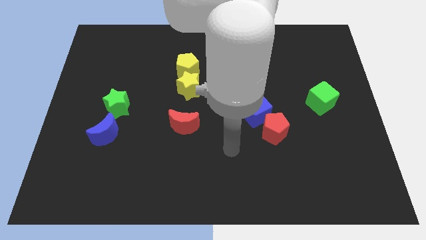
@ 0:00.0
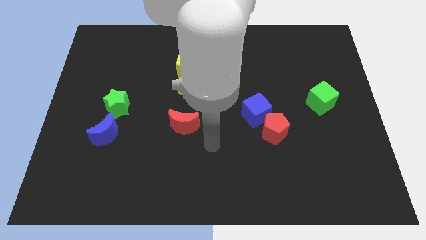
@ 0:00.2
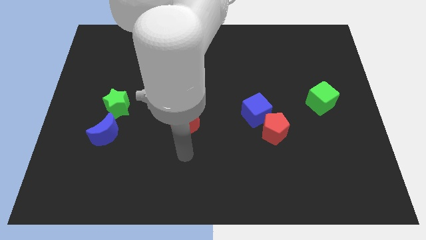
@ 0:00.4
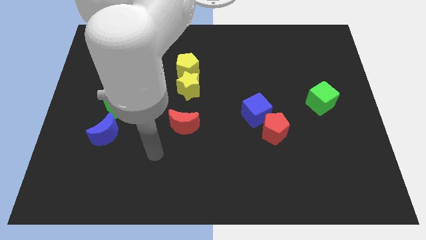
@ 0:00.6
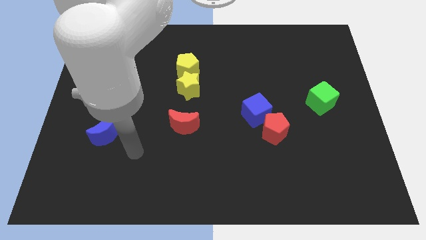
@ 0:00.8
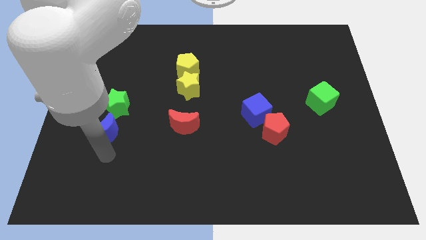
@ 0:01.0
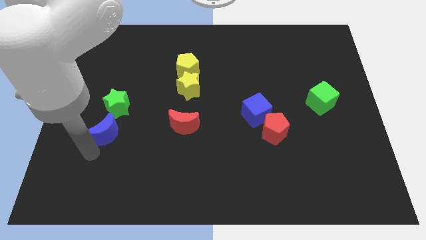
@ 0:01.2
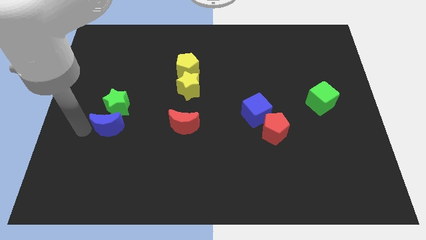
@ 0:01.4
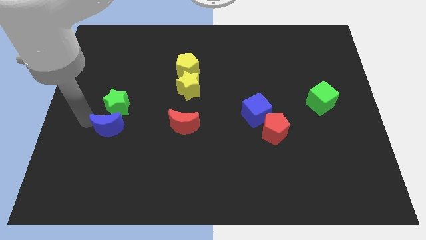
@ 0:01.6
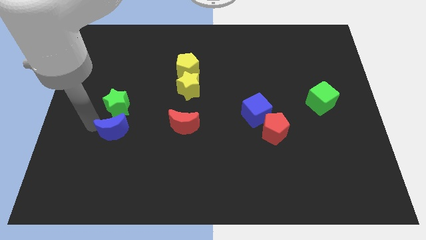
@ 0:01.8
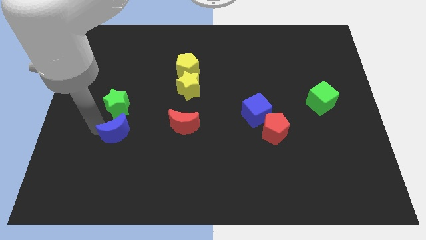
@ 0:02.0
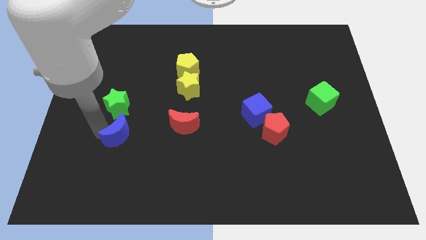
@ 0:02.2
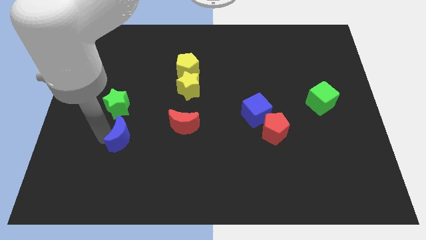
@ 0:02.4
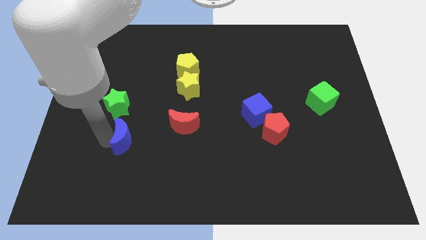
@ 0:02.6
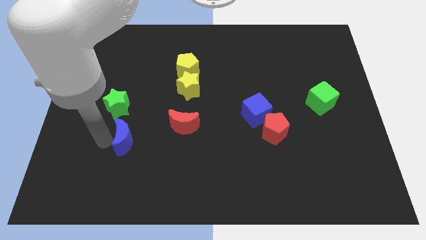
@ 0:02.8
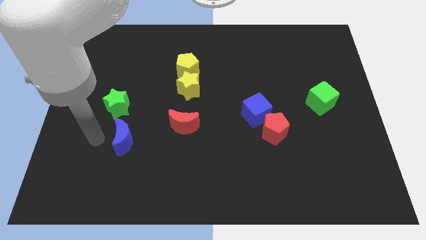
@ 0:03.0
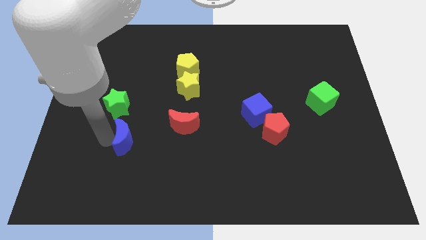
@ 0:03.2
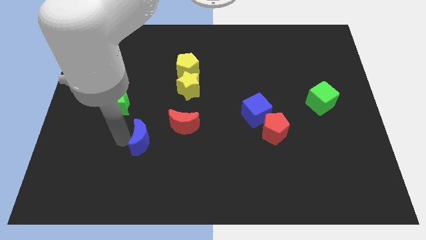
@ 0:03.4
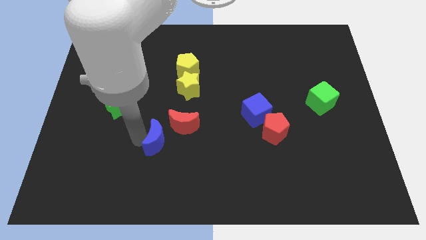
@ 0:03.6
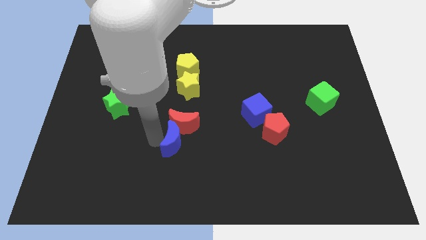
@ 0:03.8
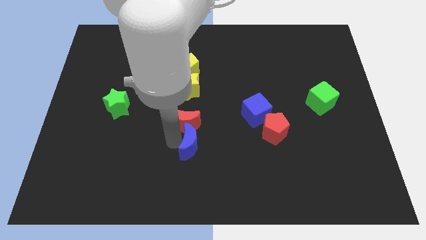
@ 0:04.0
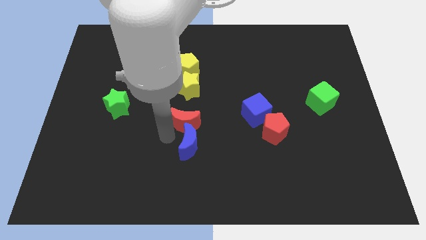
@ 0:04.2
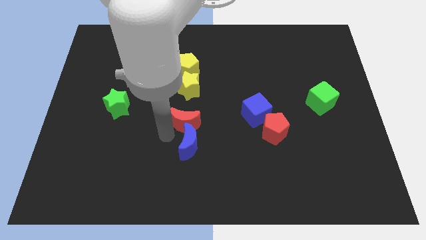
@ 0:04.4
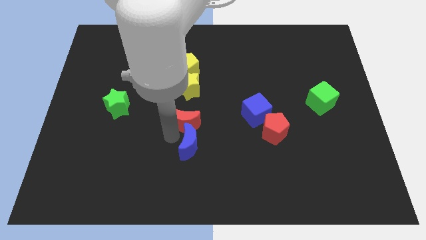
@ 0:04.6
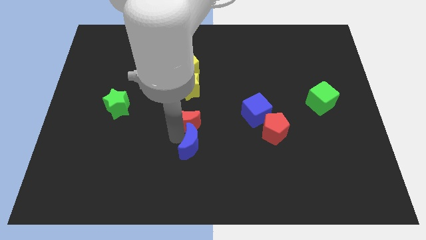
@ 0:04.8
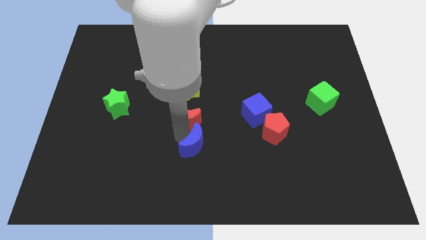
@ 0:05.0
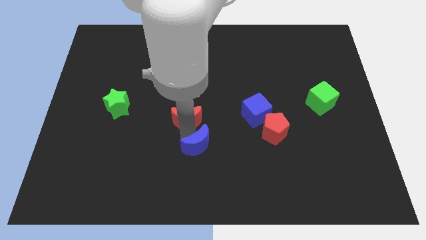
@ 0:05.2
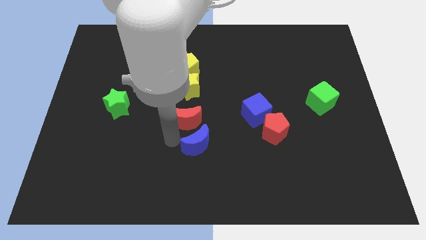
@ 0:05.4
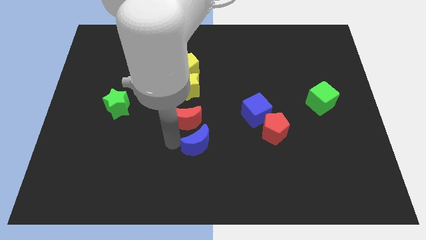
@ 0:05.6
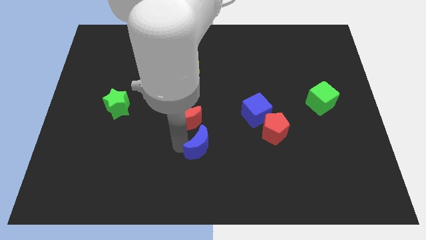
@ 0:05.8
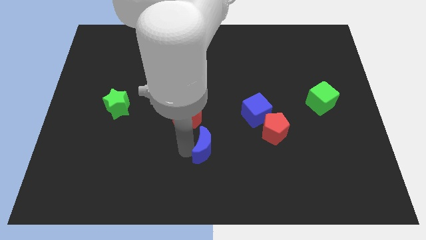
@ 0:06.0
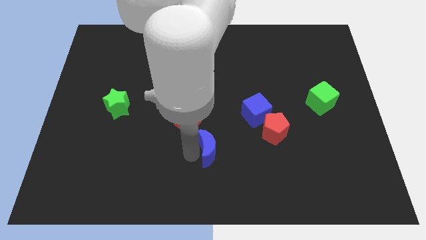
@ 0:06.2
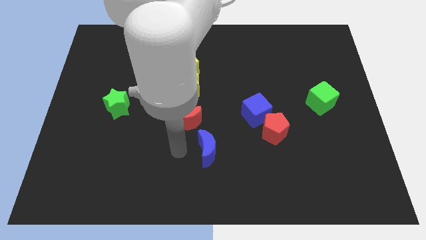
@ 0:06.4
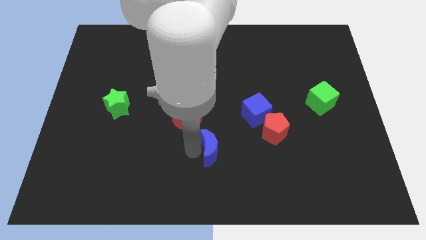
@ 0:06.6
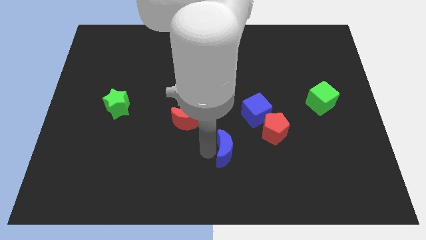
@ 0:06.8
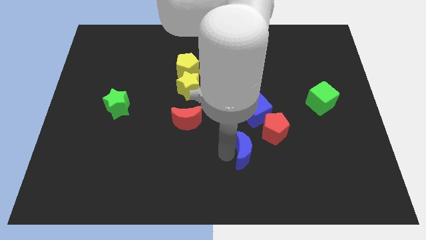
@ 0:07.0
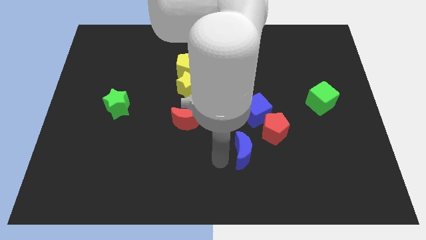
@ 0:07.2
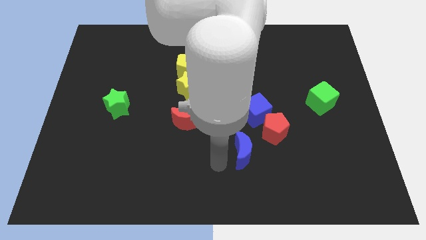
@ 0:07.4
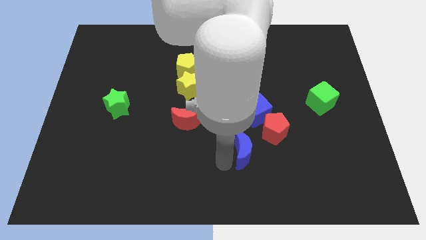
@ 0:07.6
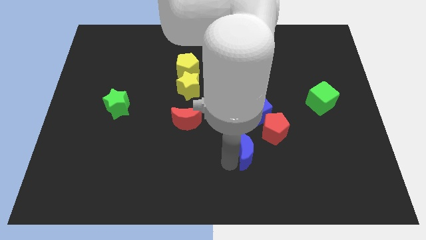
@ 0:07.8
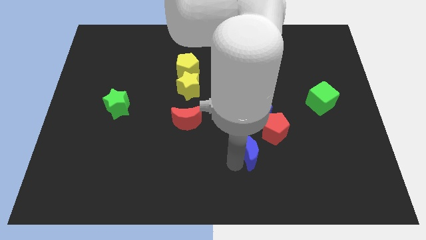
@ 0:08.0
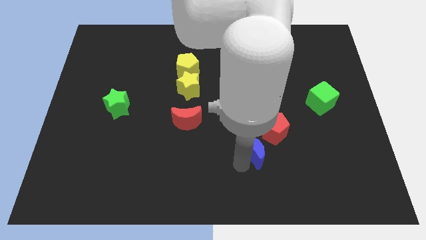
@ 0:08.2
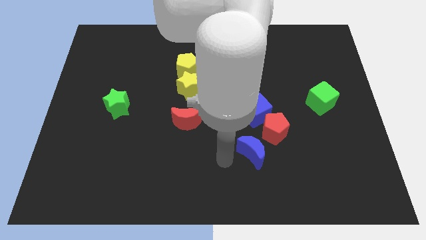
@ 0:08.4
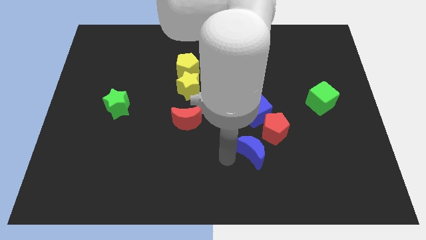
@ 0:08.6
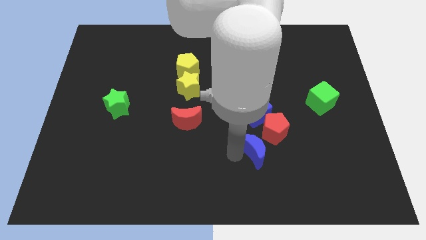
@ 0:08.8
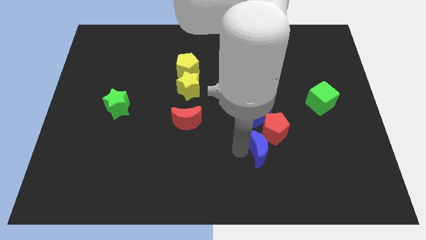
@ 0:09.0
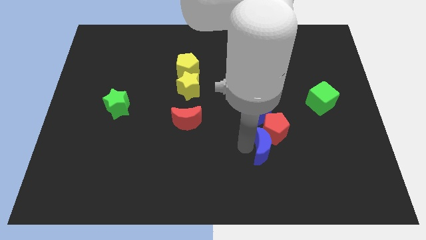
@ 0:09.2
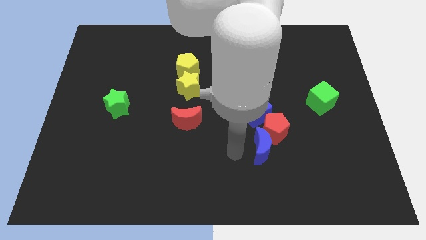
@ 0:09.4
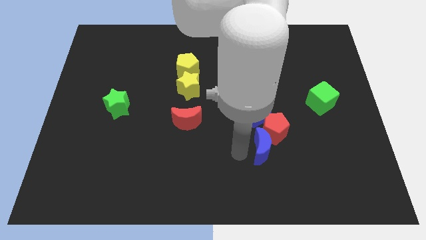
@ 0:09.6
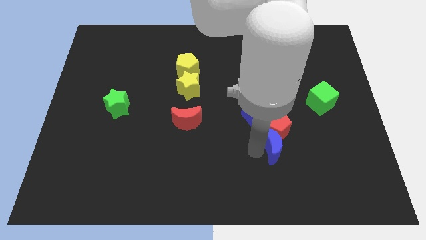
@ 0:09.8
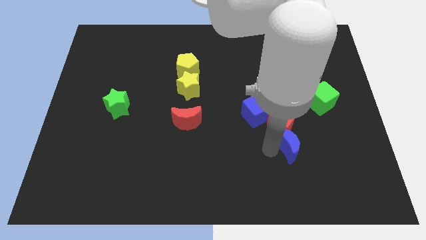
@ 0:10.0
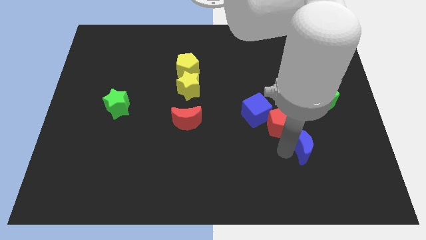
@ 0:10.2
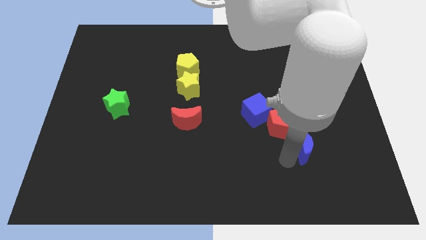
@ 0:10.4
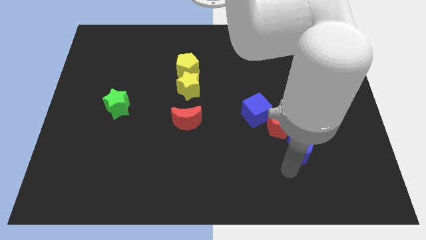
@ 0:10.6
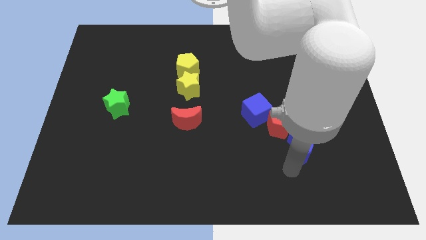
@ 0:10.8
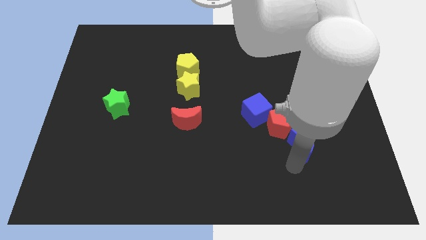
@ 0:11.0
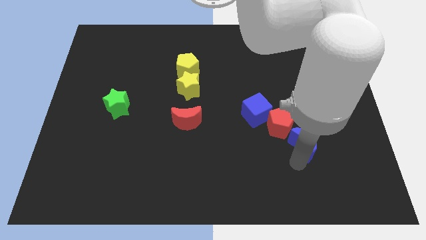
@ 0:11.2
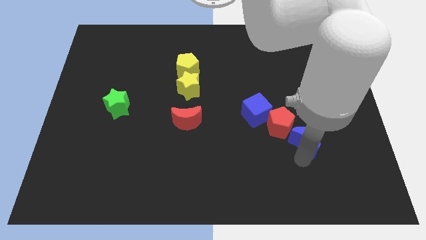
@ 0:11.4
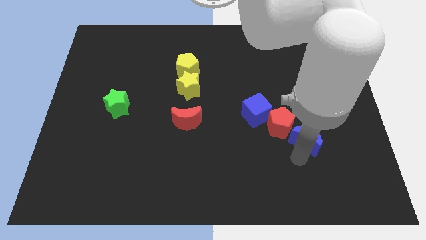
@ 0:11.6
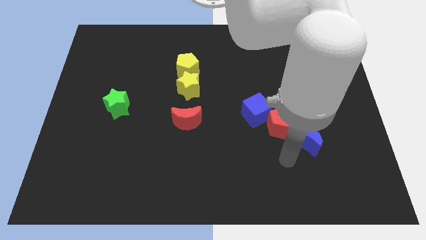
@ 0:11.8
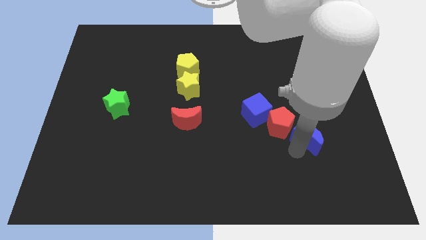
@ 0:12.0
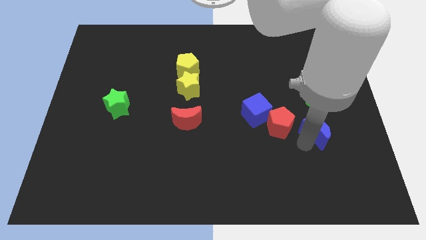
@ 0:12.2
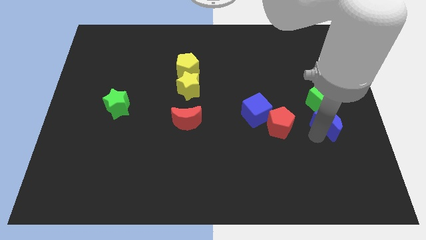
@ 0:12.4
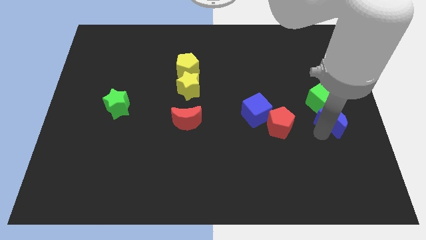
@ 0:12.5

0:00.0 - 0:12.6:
slide the blue moon to the right side of the board
